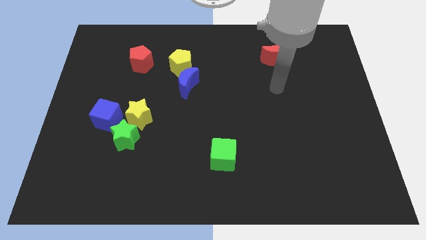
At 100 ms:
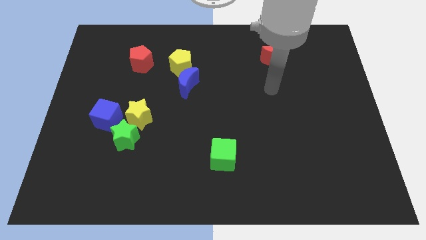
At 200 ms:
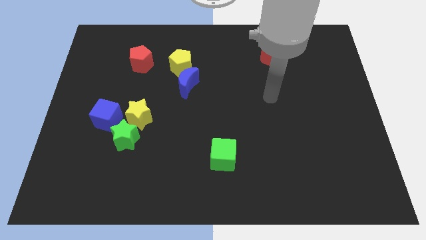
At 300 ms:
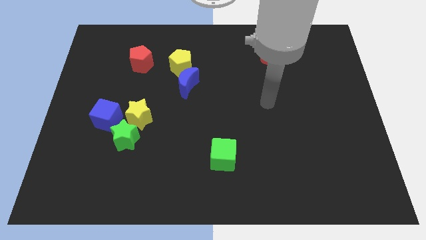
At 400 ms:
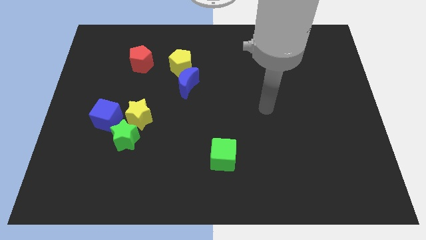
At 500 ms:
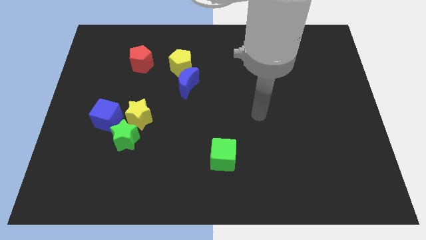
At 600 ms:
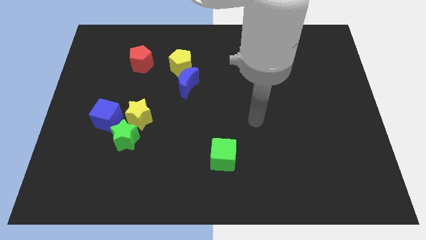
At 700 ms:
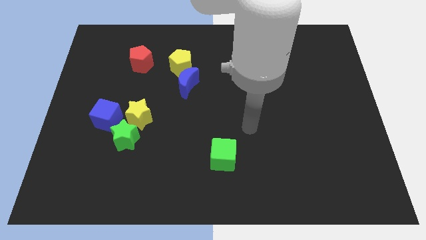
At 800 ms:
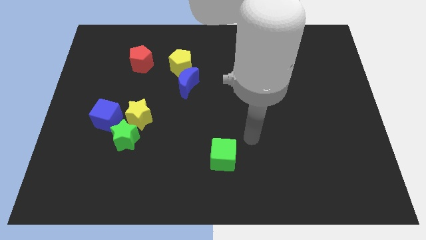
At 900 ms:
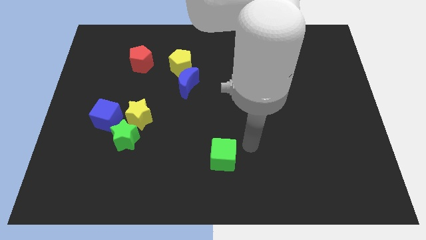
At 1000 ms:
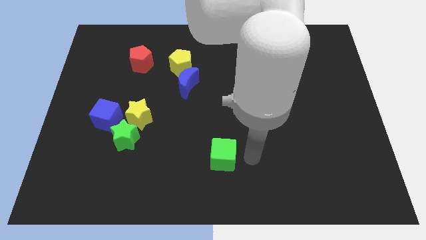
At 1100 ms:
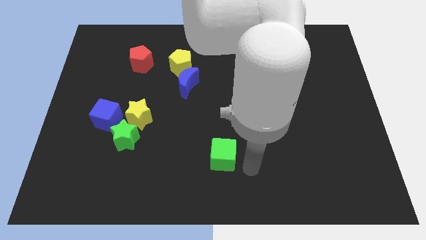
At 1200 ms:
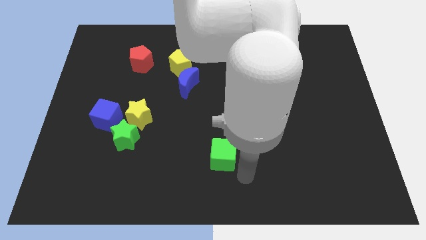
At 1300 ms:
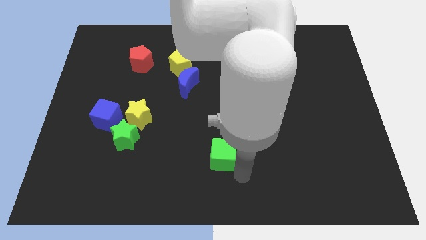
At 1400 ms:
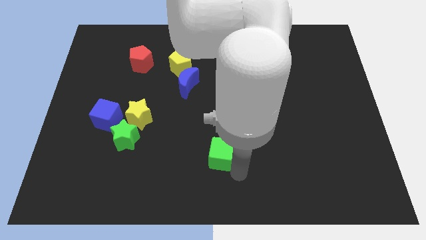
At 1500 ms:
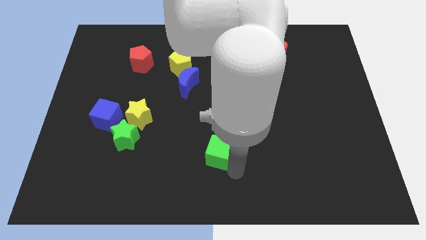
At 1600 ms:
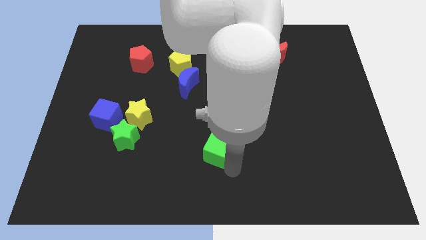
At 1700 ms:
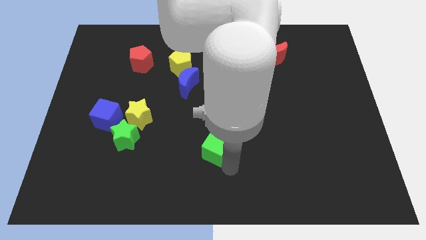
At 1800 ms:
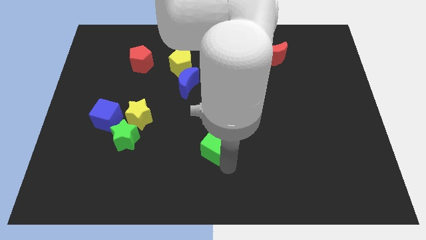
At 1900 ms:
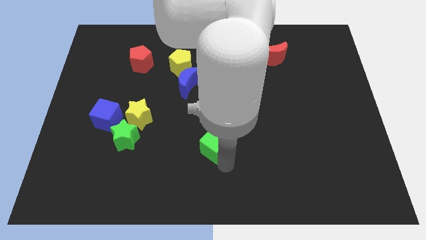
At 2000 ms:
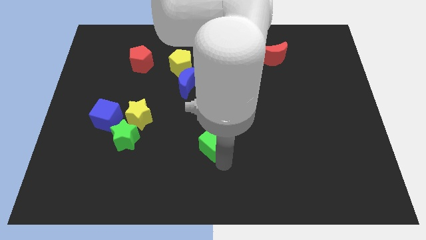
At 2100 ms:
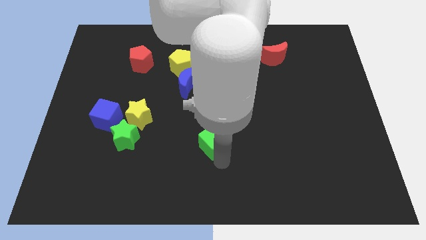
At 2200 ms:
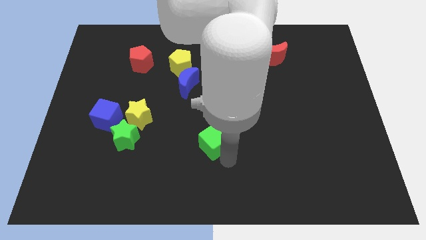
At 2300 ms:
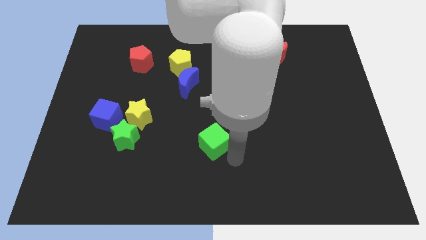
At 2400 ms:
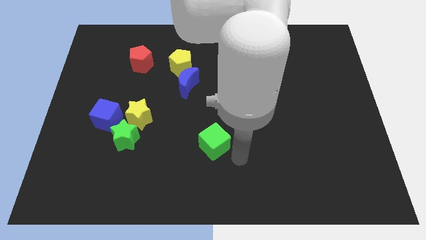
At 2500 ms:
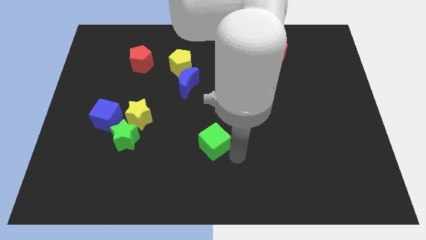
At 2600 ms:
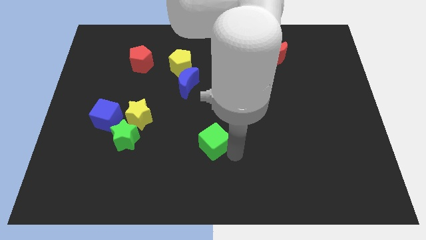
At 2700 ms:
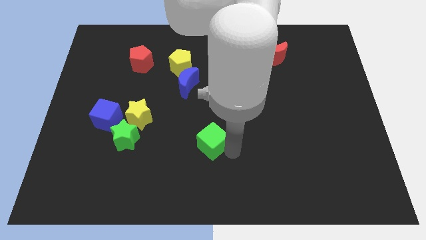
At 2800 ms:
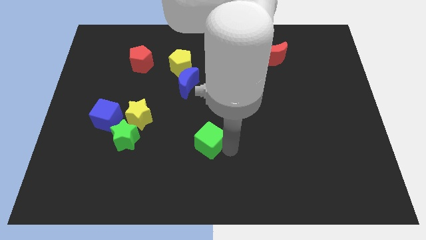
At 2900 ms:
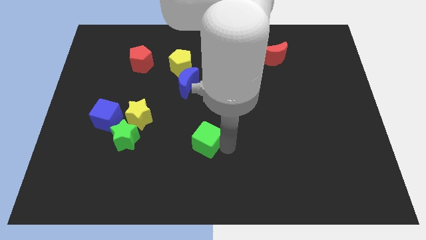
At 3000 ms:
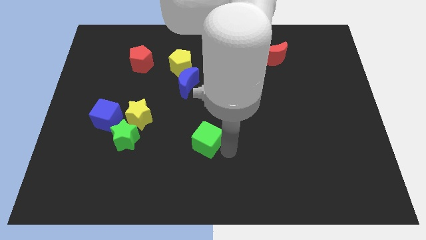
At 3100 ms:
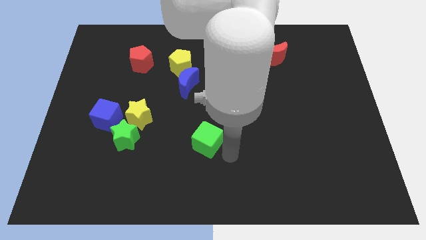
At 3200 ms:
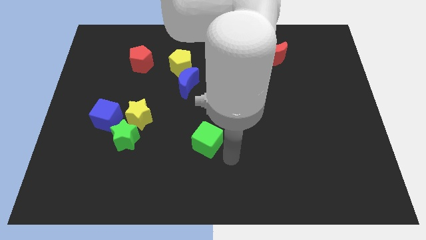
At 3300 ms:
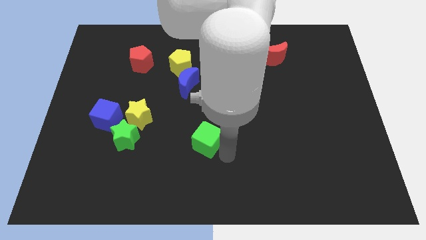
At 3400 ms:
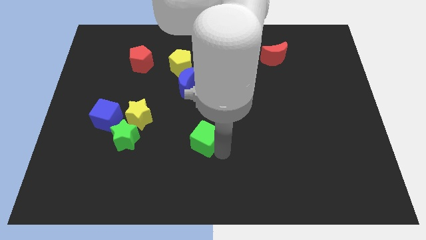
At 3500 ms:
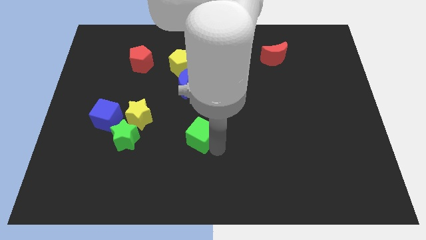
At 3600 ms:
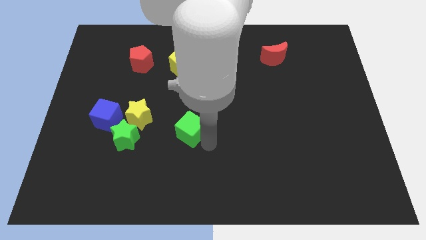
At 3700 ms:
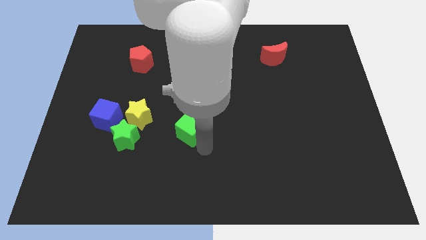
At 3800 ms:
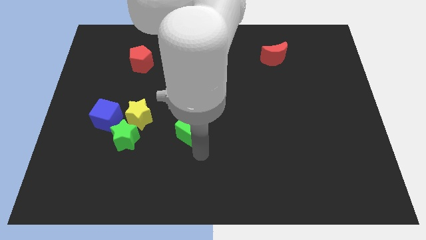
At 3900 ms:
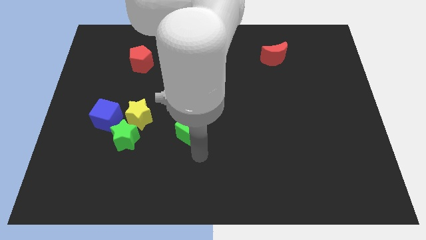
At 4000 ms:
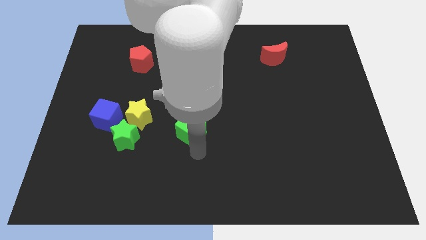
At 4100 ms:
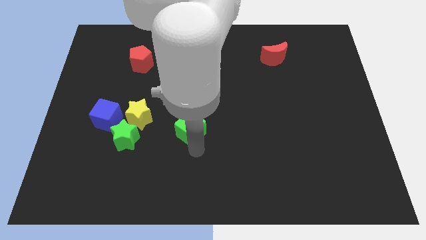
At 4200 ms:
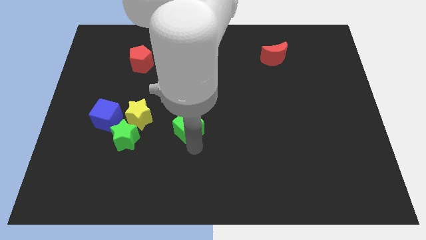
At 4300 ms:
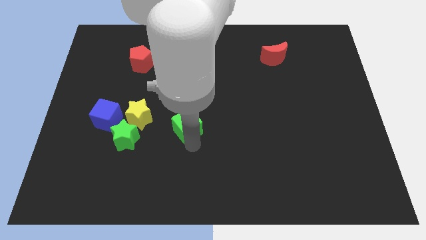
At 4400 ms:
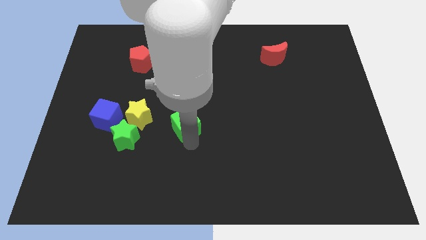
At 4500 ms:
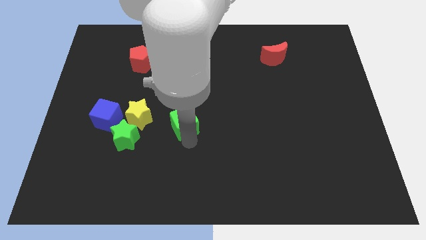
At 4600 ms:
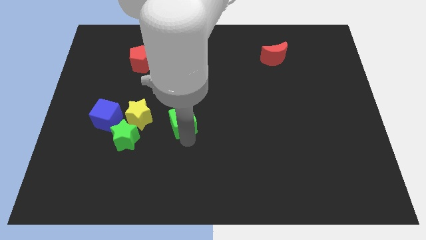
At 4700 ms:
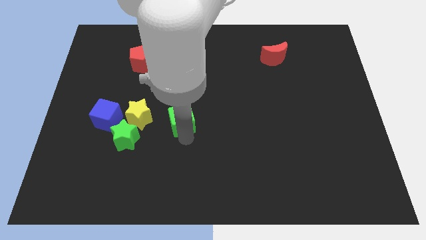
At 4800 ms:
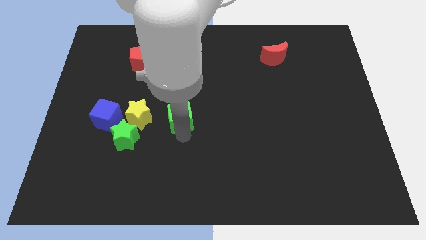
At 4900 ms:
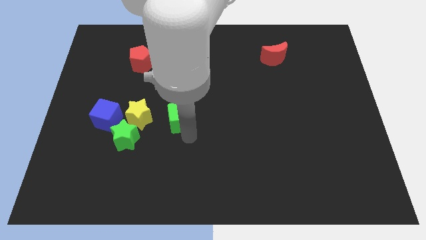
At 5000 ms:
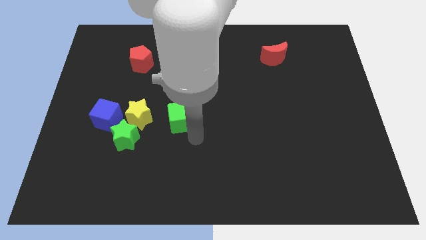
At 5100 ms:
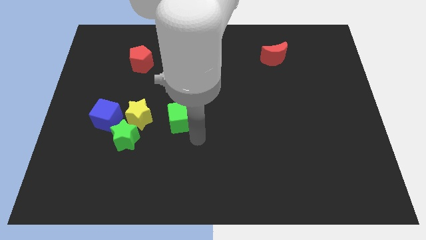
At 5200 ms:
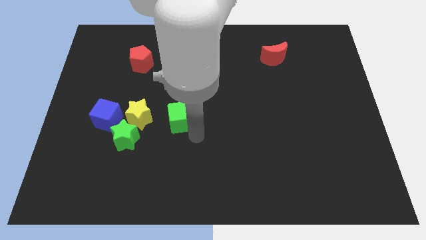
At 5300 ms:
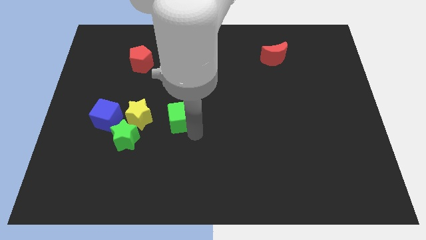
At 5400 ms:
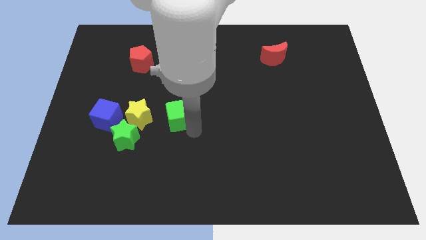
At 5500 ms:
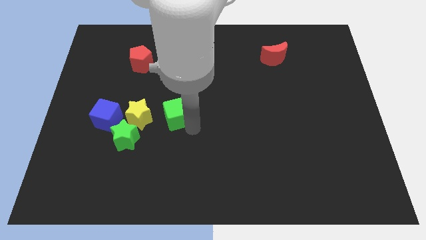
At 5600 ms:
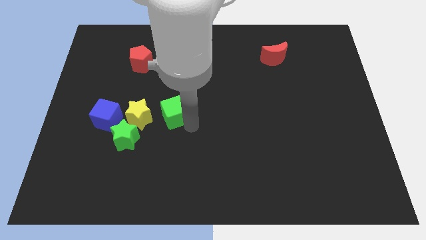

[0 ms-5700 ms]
push the green cube to the bottom left of the blue moon

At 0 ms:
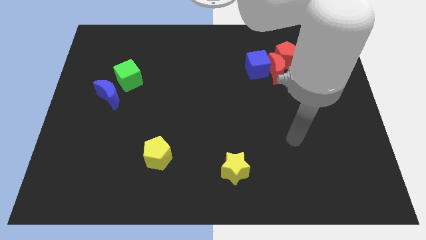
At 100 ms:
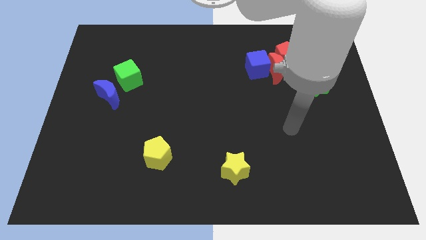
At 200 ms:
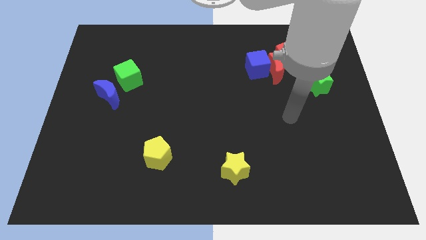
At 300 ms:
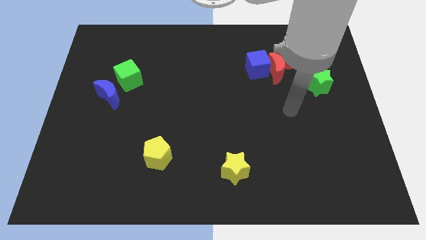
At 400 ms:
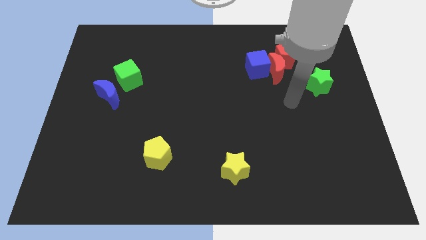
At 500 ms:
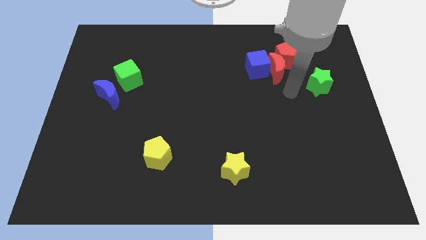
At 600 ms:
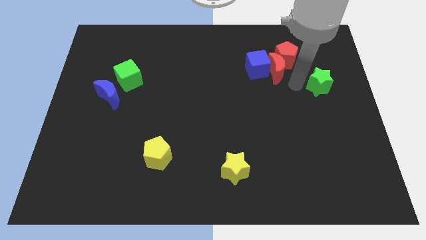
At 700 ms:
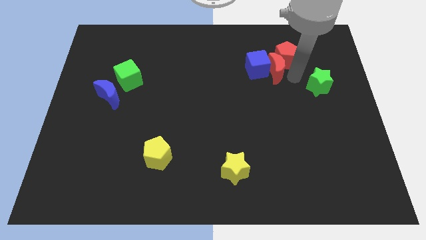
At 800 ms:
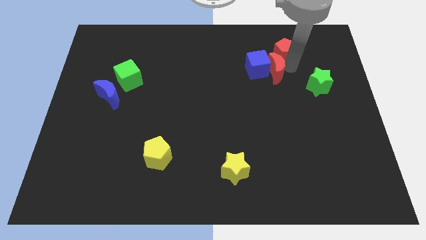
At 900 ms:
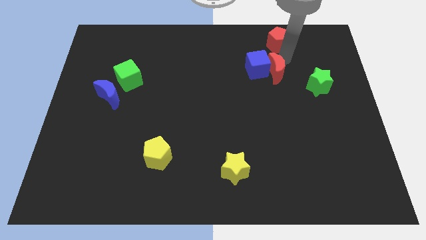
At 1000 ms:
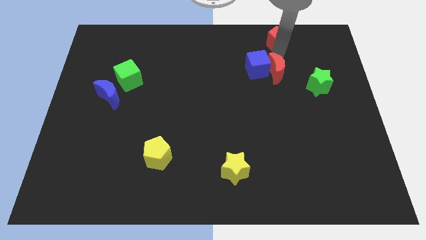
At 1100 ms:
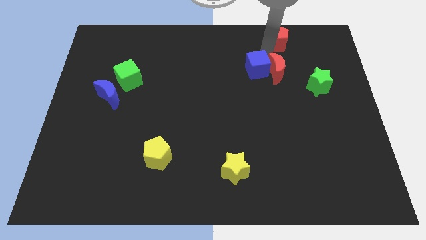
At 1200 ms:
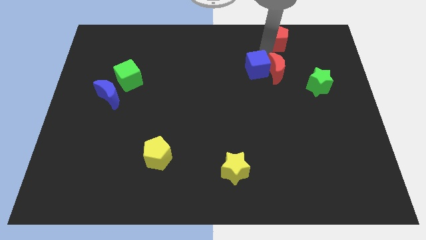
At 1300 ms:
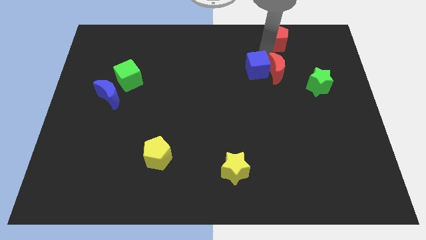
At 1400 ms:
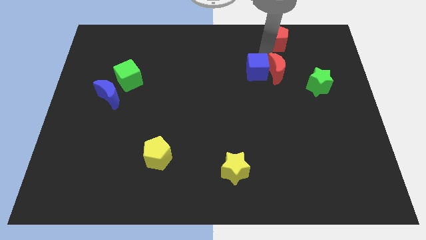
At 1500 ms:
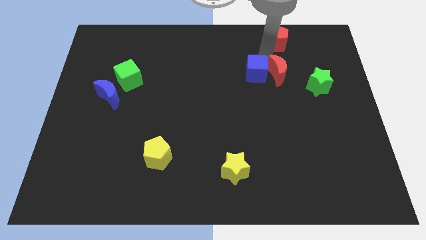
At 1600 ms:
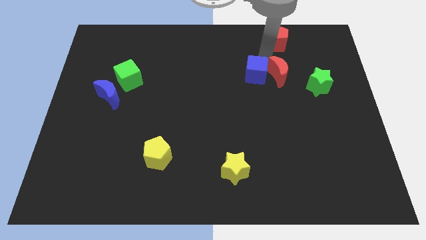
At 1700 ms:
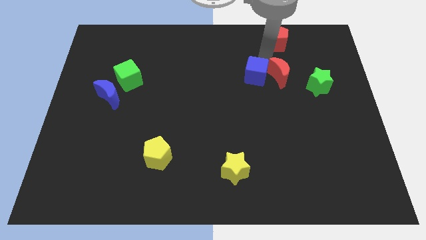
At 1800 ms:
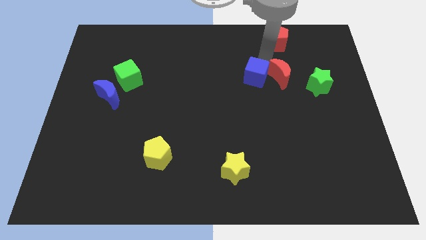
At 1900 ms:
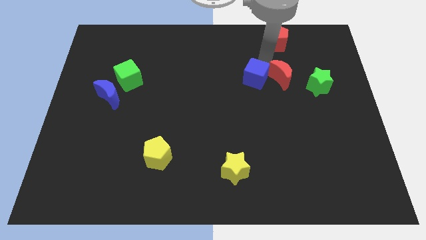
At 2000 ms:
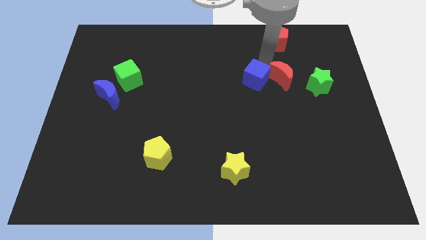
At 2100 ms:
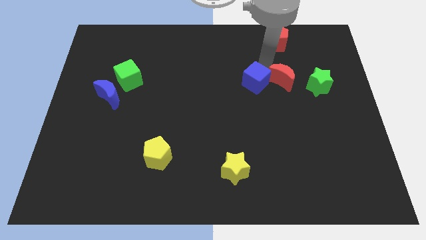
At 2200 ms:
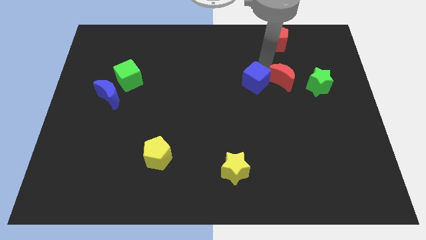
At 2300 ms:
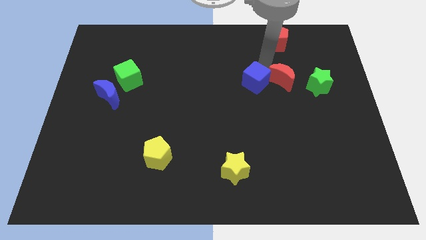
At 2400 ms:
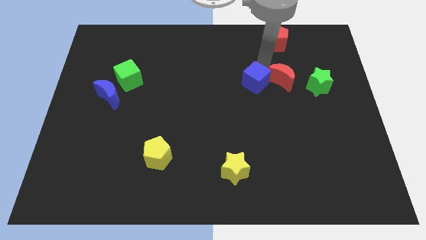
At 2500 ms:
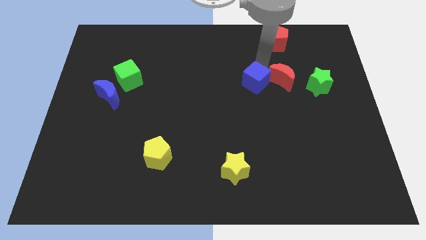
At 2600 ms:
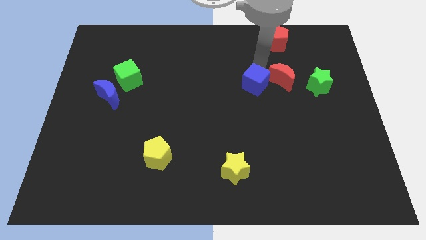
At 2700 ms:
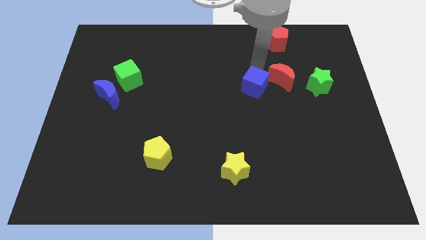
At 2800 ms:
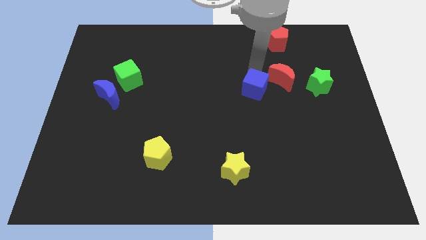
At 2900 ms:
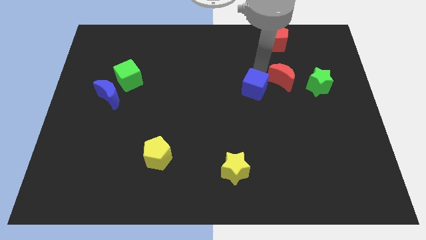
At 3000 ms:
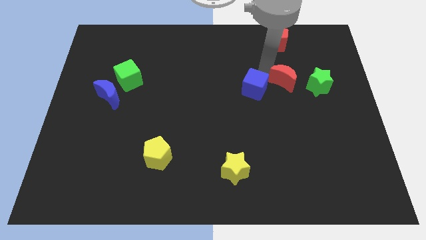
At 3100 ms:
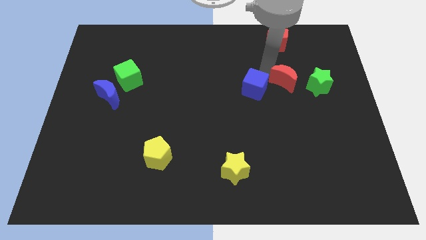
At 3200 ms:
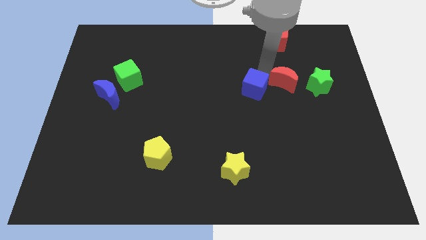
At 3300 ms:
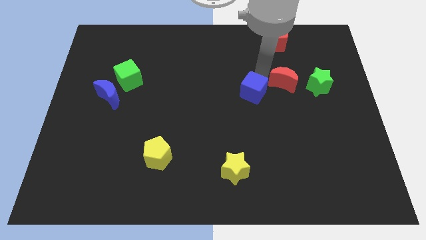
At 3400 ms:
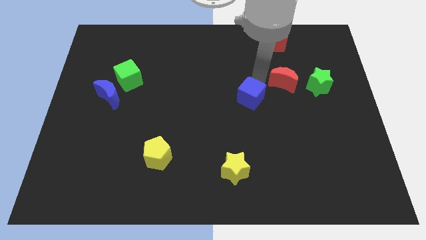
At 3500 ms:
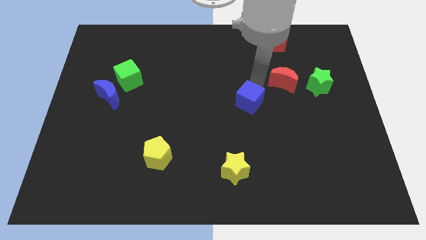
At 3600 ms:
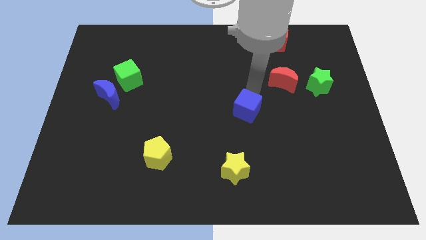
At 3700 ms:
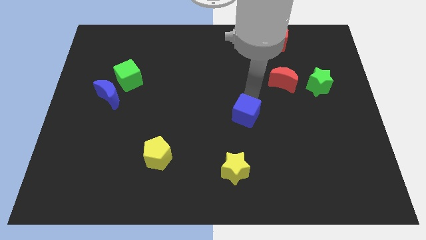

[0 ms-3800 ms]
slide the blue cube to the top of the yellow star
